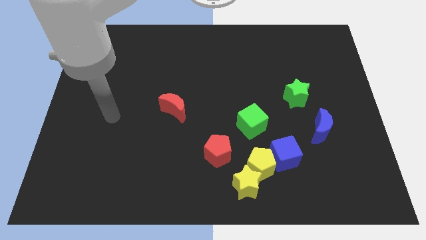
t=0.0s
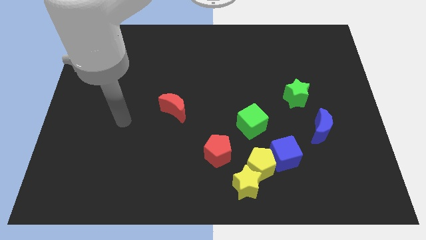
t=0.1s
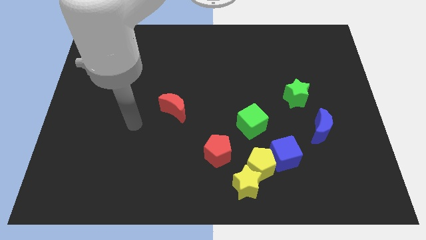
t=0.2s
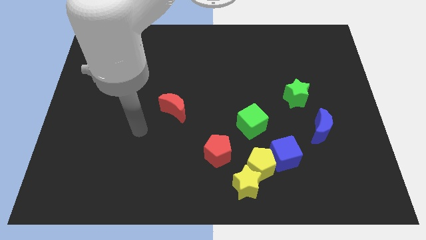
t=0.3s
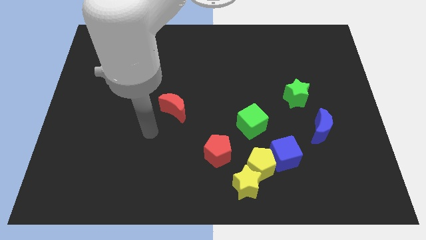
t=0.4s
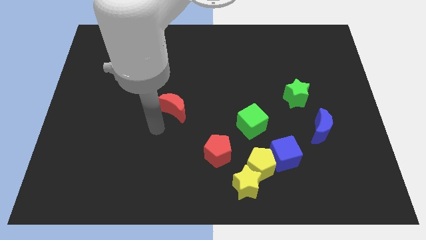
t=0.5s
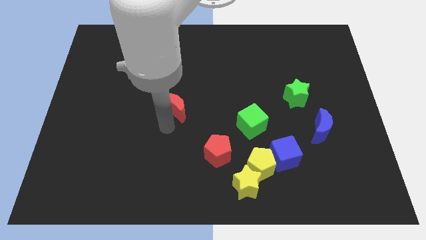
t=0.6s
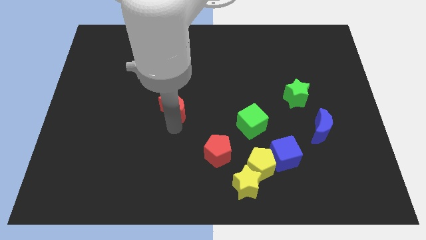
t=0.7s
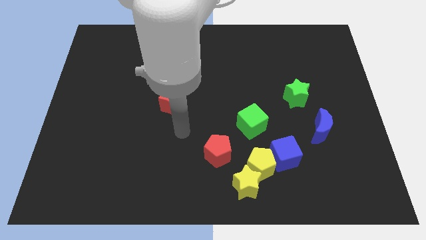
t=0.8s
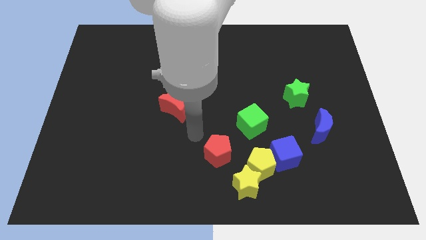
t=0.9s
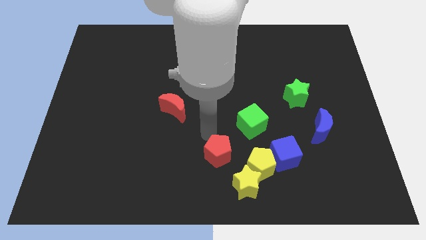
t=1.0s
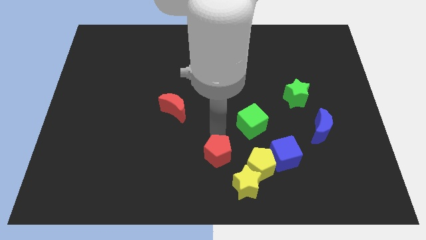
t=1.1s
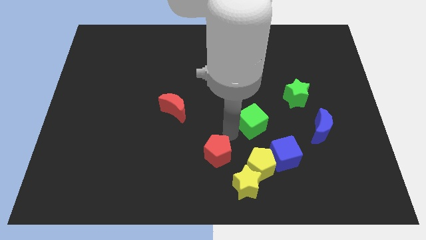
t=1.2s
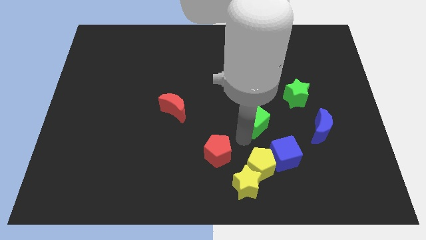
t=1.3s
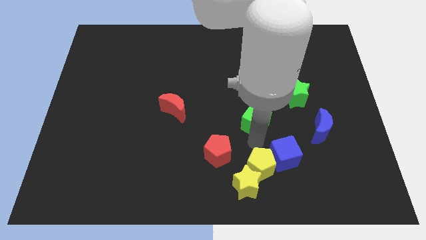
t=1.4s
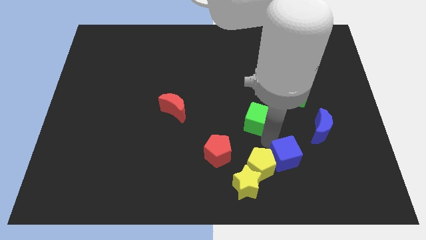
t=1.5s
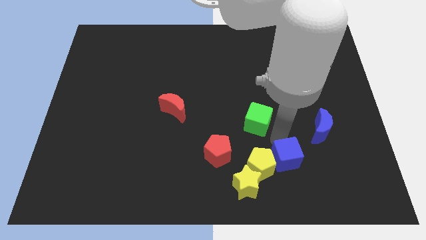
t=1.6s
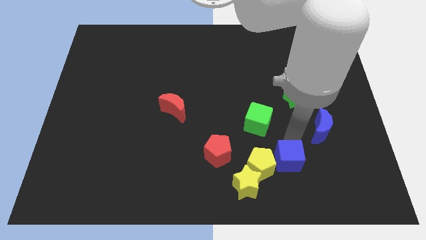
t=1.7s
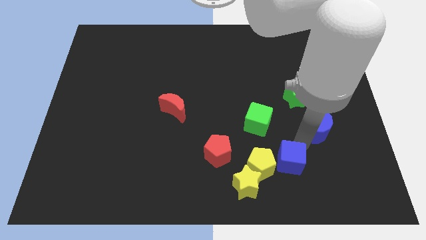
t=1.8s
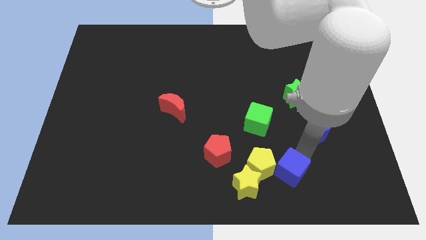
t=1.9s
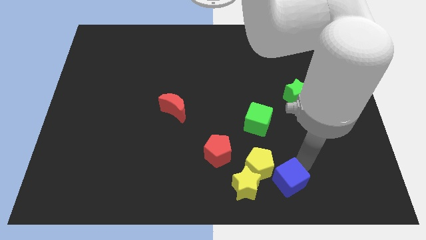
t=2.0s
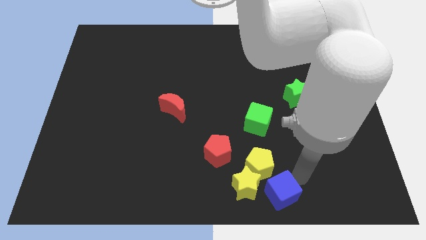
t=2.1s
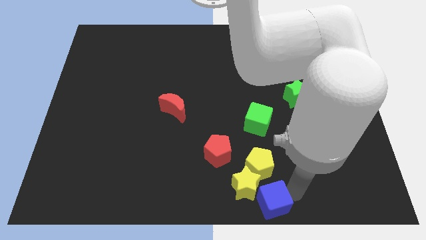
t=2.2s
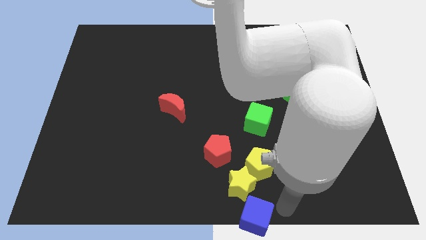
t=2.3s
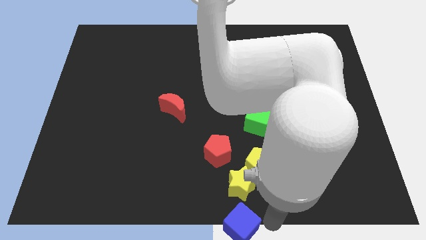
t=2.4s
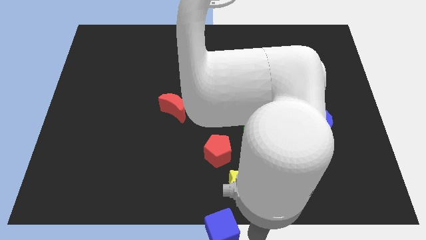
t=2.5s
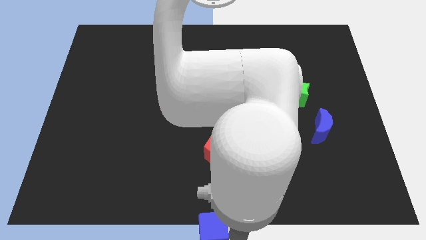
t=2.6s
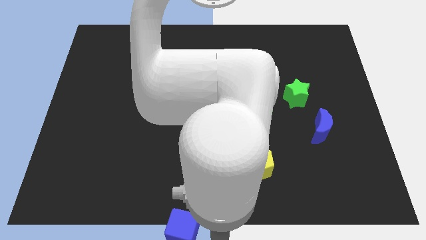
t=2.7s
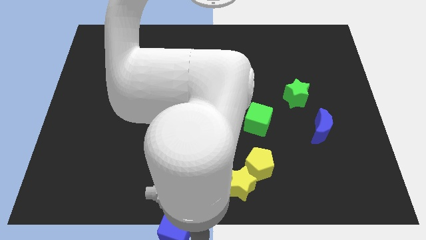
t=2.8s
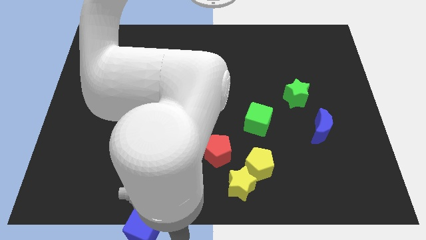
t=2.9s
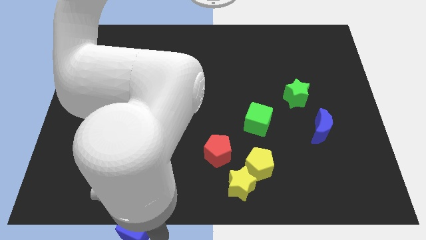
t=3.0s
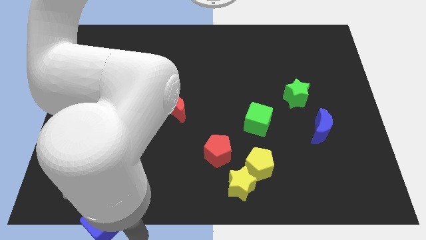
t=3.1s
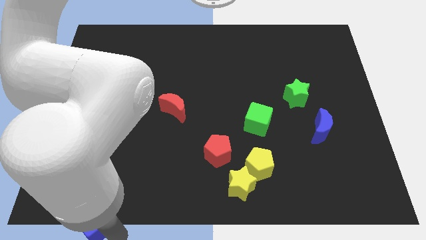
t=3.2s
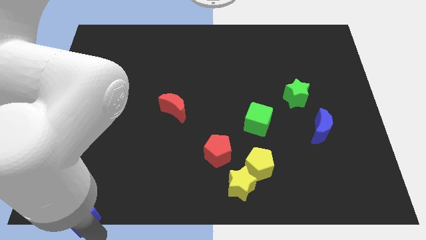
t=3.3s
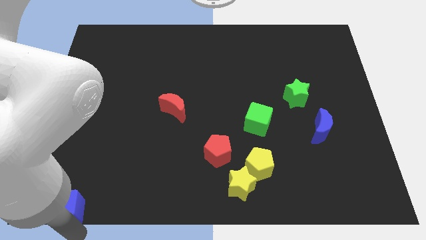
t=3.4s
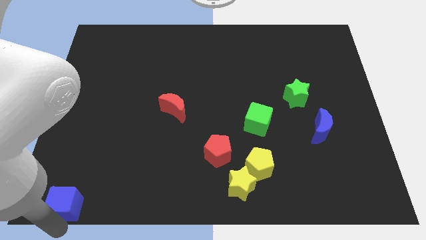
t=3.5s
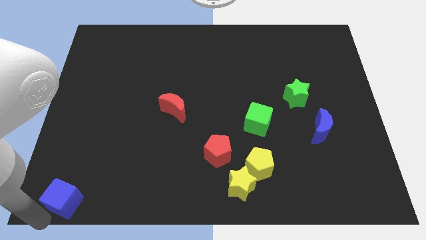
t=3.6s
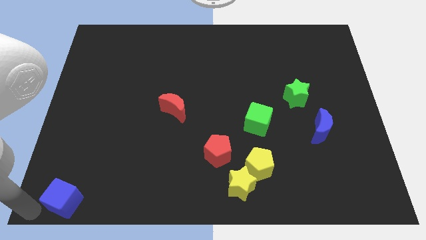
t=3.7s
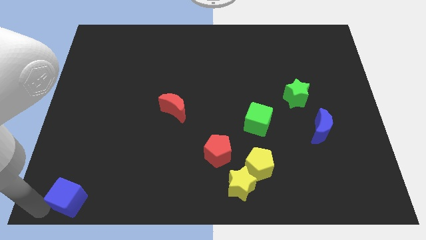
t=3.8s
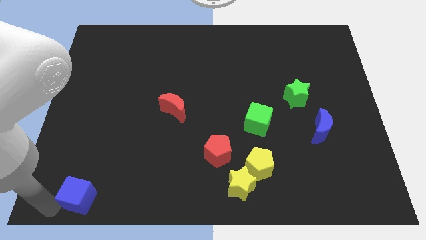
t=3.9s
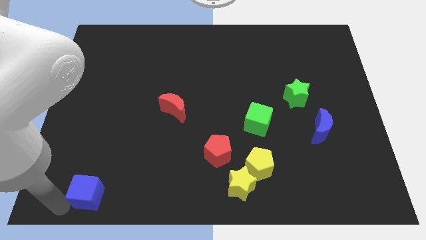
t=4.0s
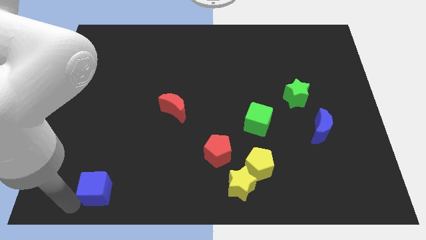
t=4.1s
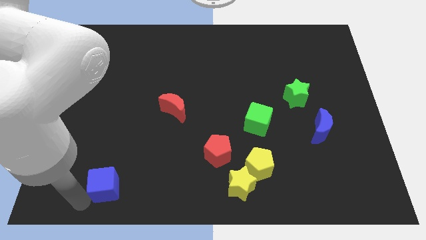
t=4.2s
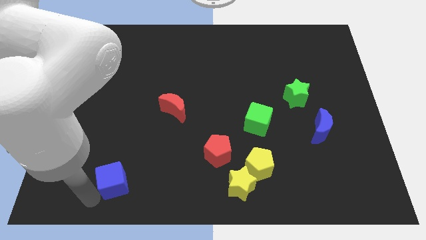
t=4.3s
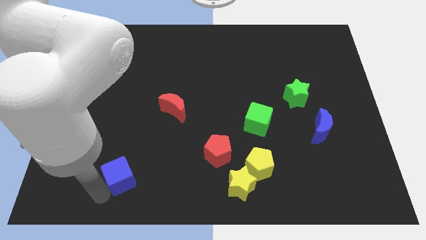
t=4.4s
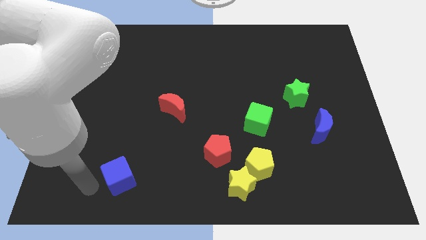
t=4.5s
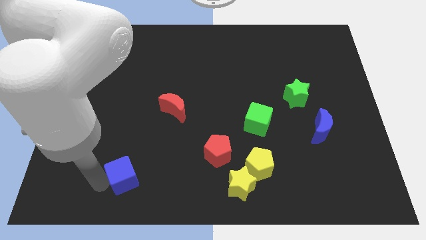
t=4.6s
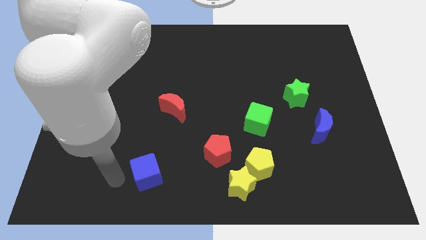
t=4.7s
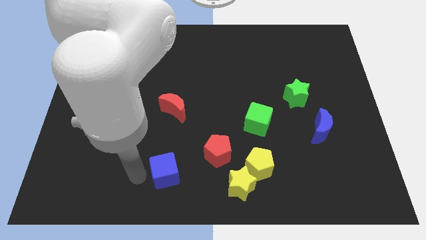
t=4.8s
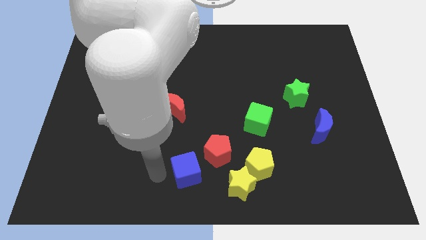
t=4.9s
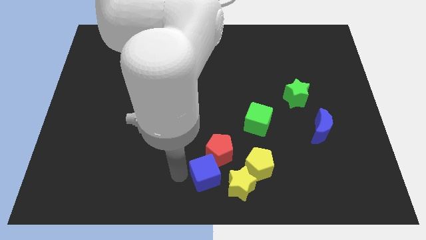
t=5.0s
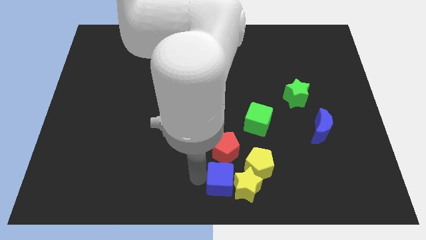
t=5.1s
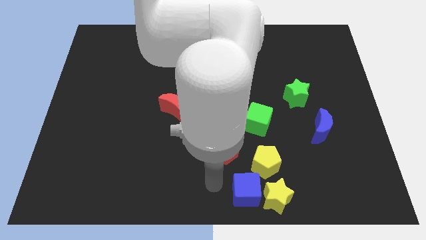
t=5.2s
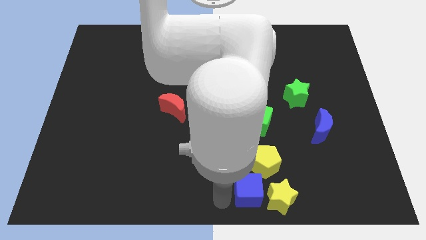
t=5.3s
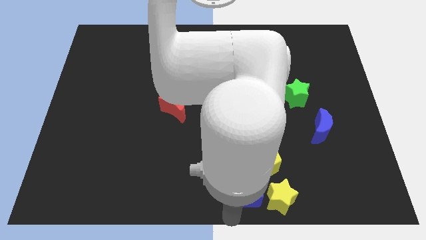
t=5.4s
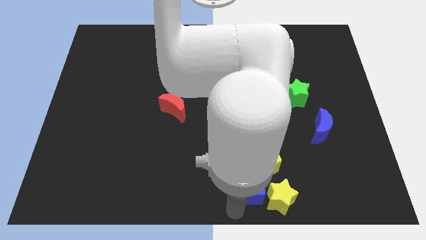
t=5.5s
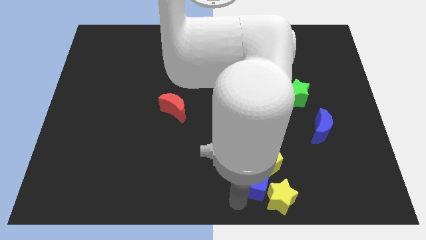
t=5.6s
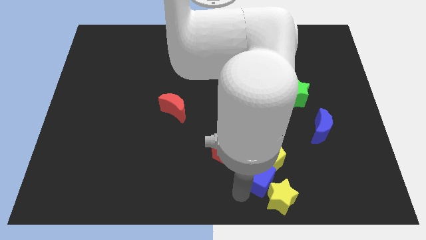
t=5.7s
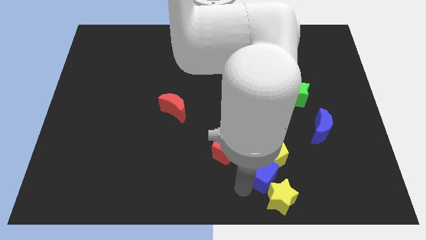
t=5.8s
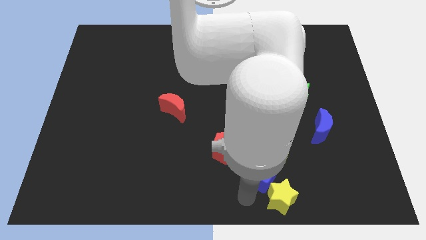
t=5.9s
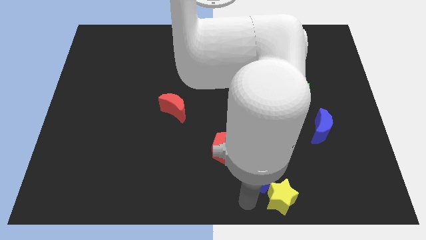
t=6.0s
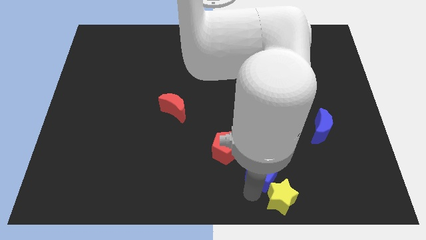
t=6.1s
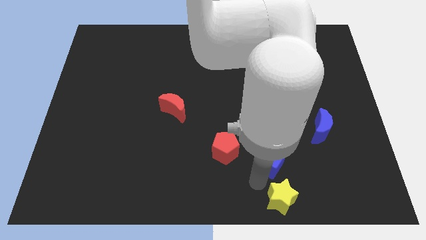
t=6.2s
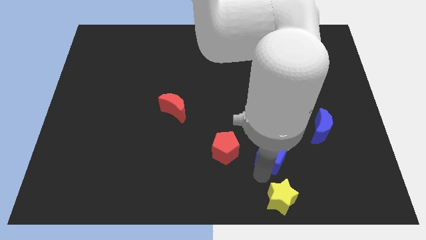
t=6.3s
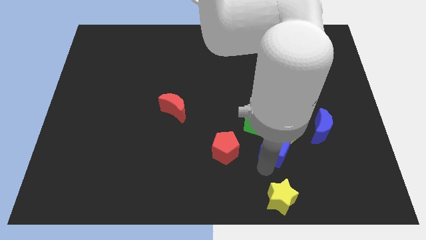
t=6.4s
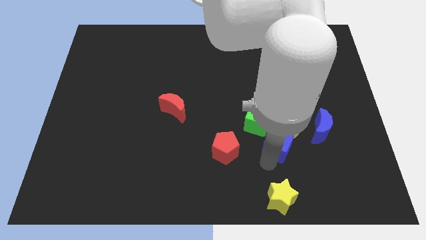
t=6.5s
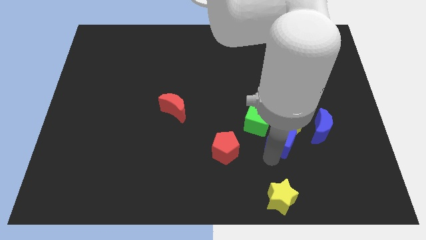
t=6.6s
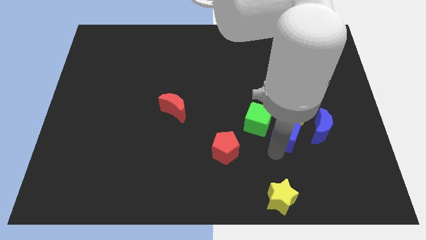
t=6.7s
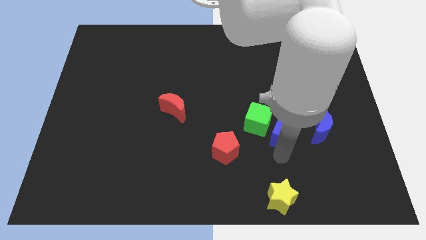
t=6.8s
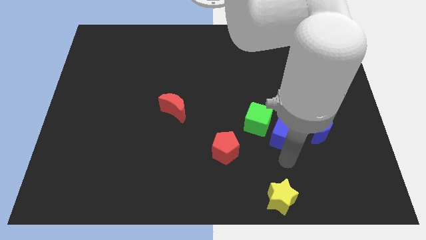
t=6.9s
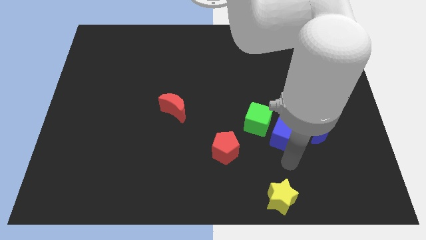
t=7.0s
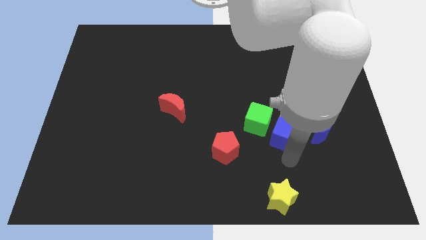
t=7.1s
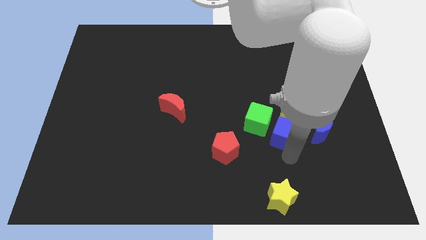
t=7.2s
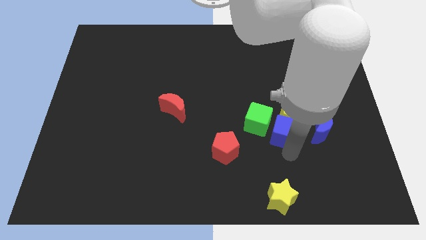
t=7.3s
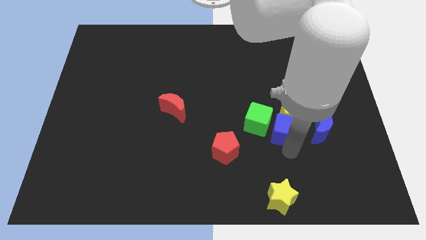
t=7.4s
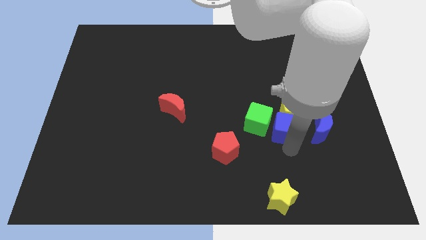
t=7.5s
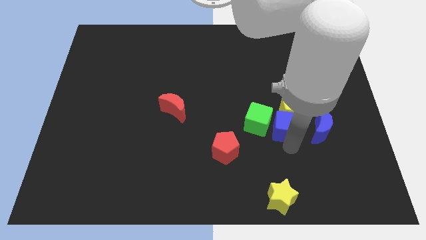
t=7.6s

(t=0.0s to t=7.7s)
slightly push the blue cube upwards

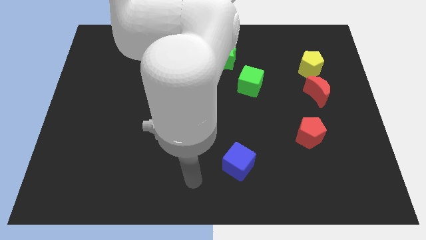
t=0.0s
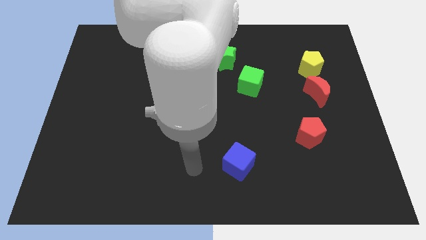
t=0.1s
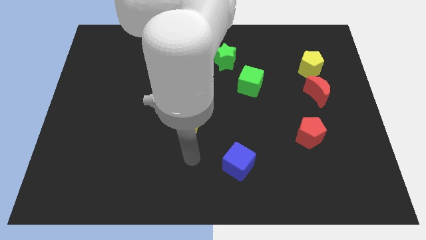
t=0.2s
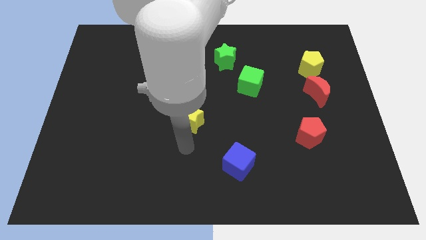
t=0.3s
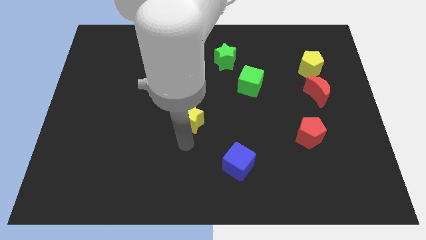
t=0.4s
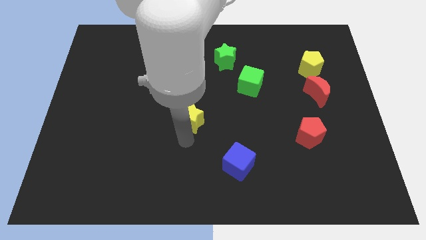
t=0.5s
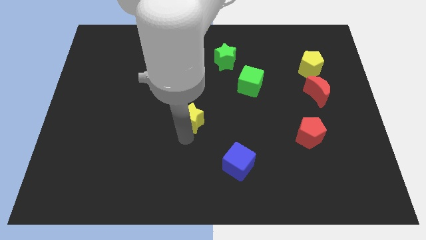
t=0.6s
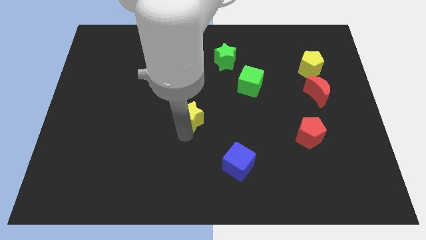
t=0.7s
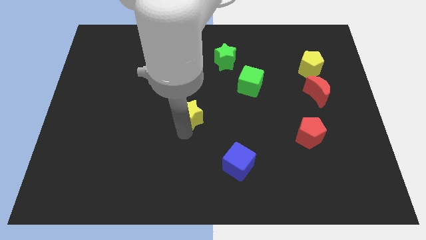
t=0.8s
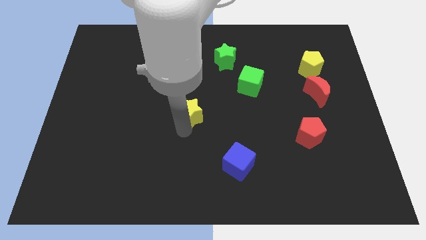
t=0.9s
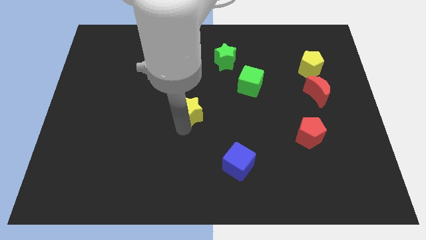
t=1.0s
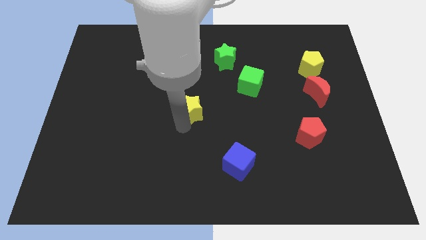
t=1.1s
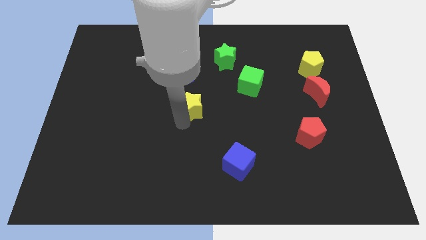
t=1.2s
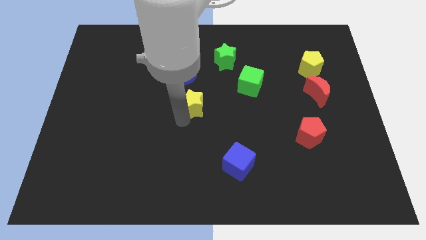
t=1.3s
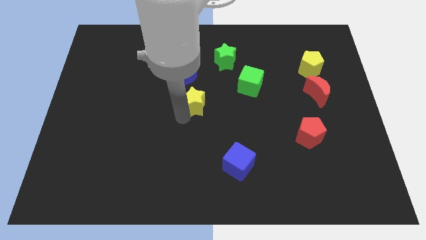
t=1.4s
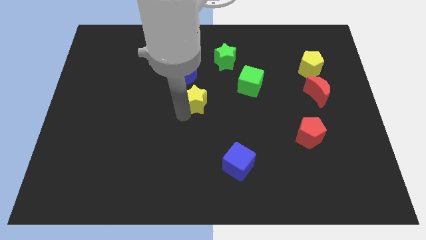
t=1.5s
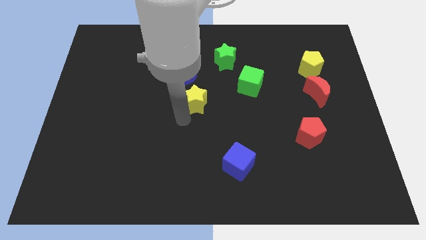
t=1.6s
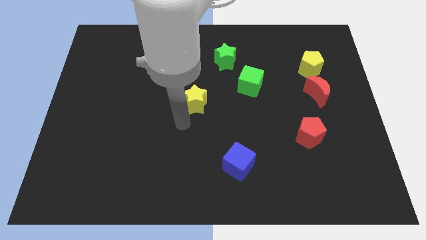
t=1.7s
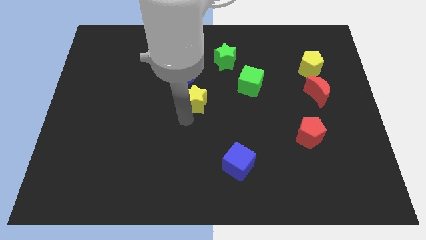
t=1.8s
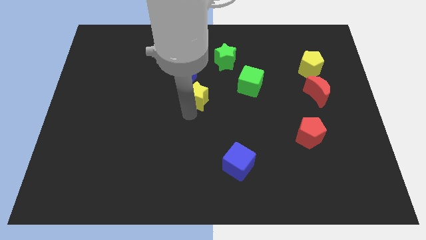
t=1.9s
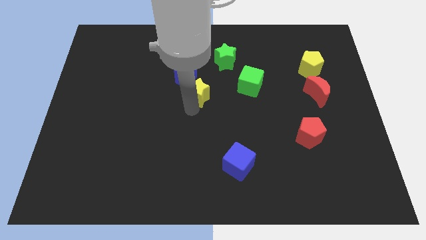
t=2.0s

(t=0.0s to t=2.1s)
slightly slide the yellow star up
